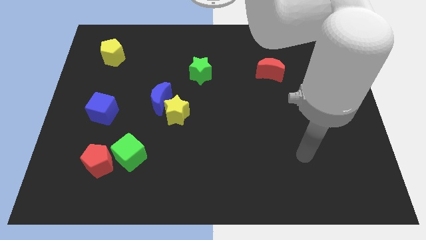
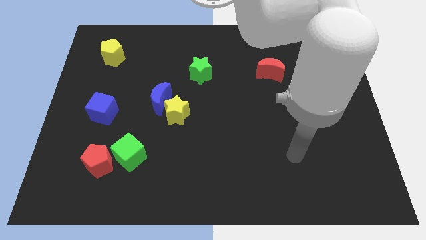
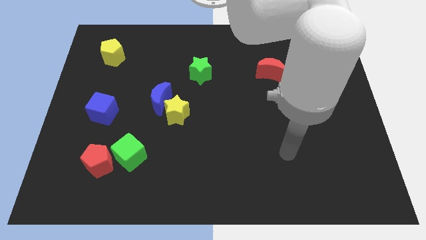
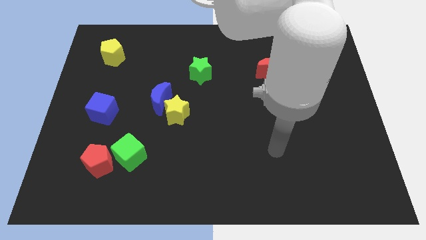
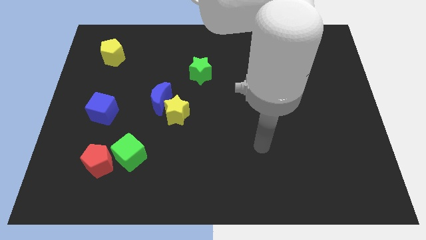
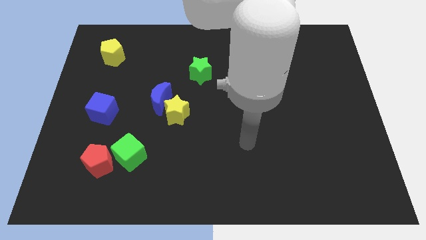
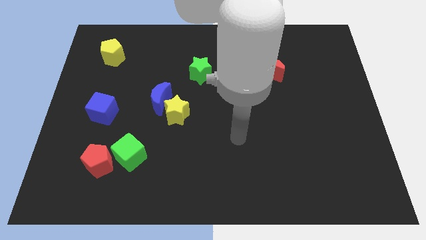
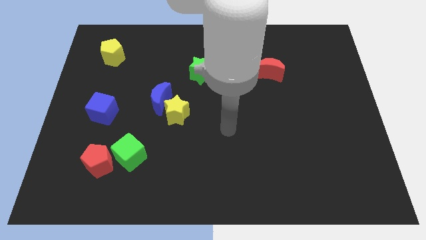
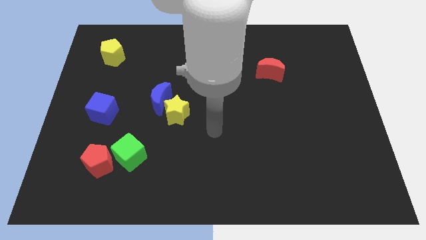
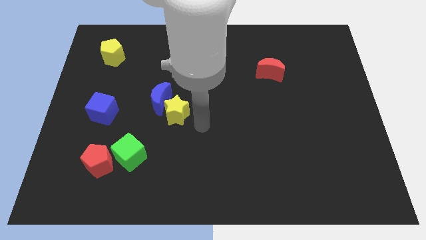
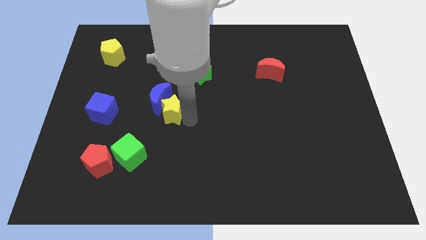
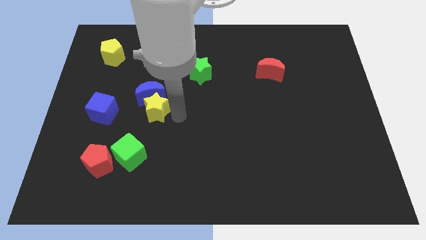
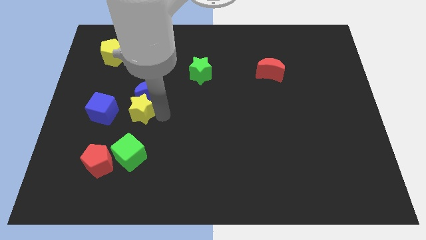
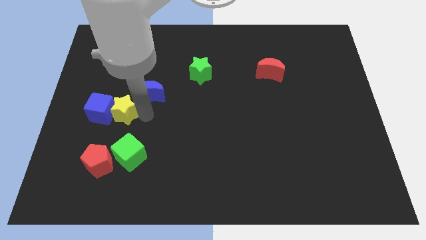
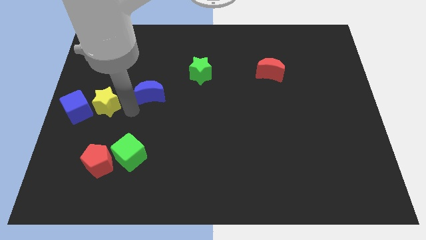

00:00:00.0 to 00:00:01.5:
separate the blue moon from the yellow star

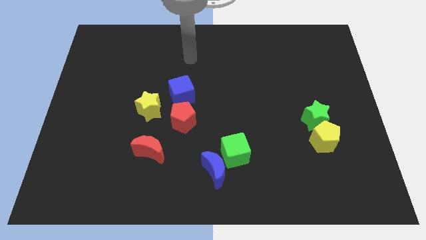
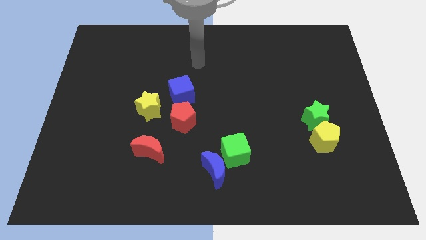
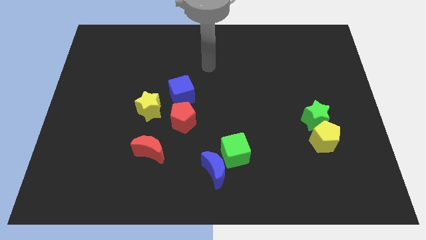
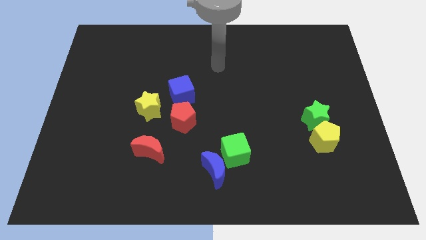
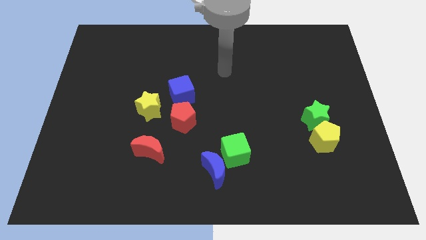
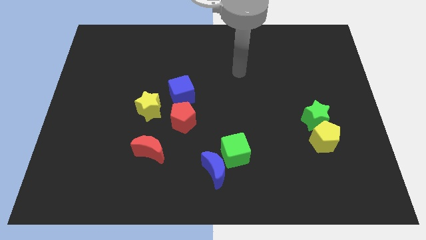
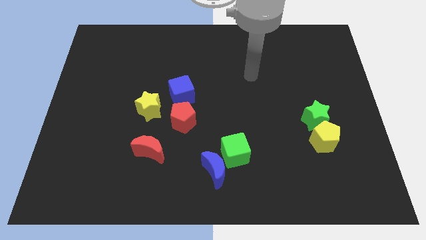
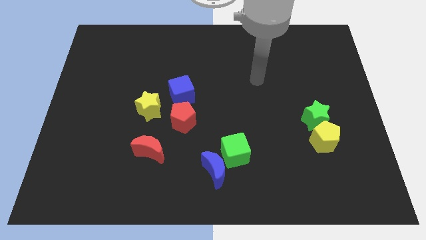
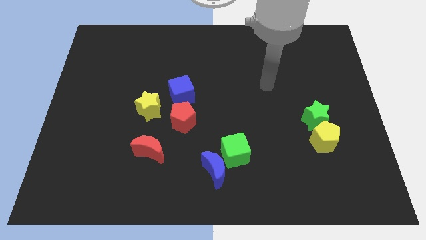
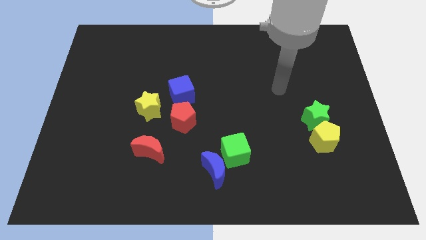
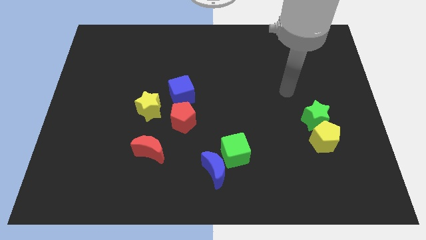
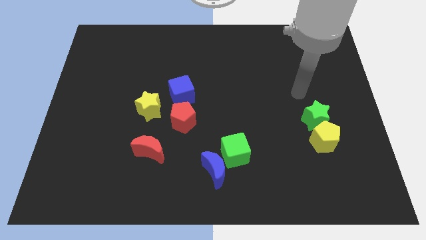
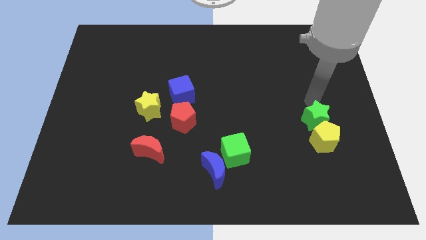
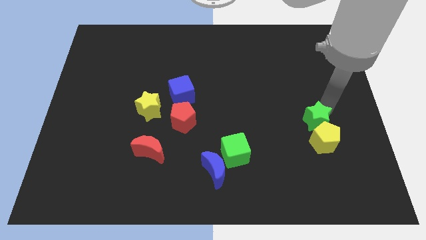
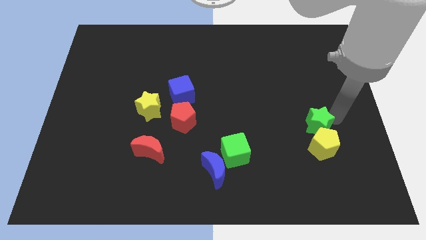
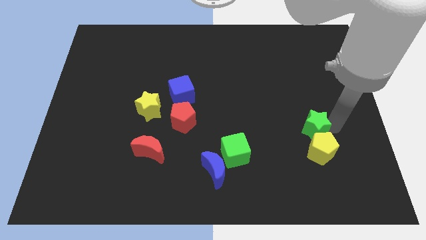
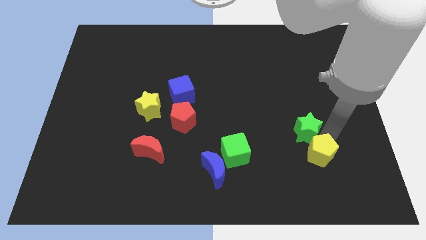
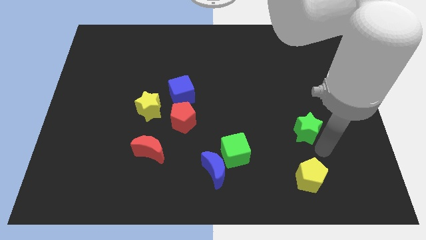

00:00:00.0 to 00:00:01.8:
separate the green star from the yellow pentagon

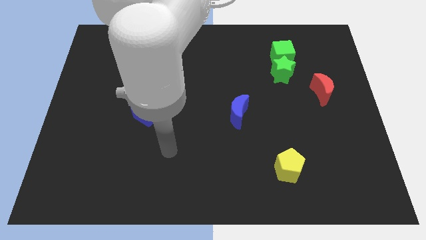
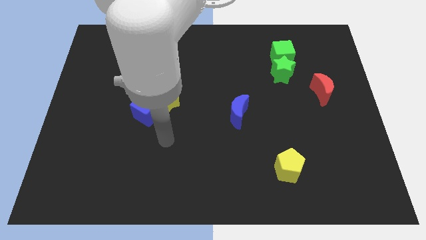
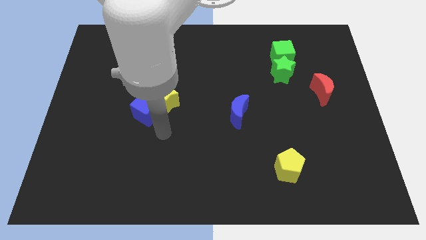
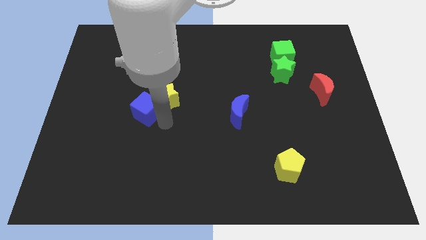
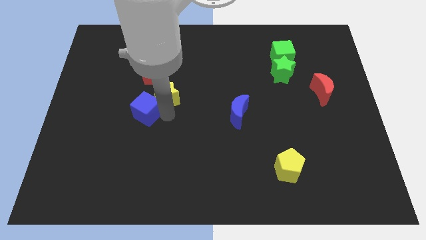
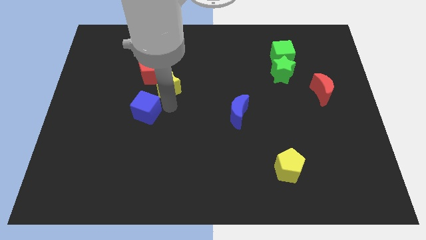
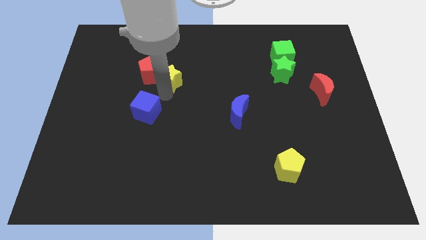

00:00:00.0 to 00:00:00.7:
move the blue cube away from the yellow star

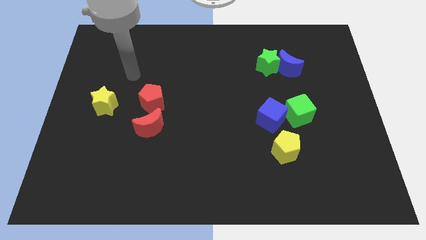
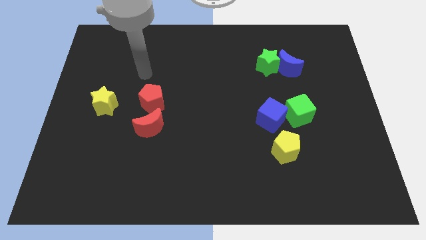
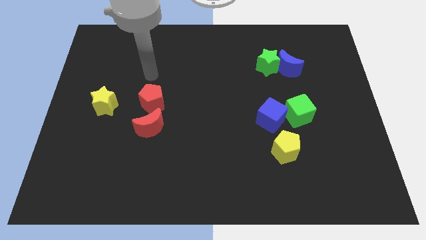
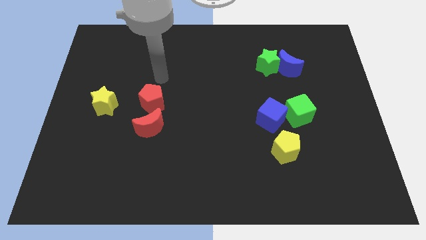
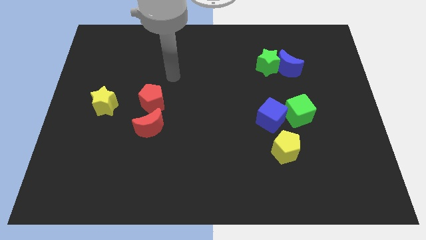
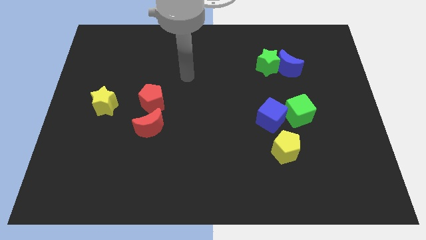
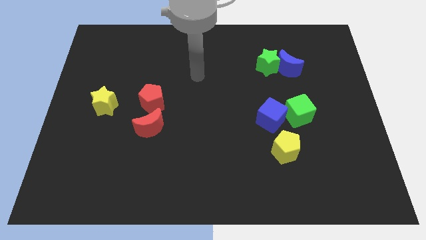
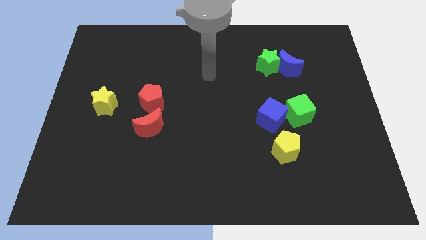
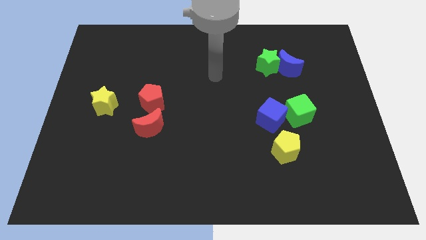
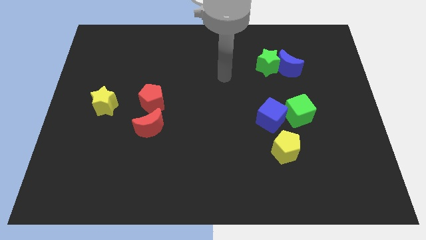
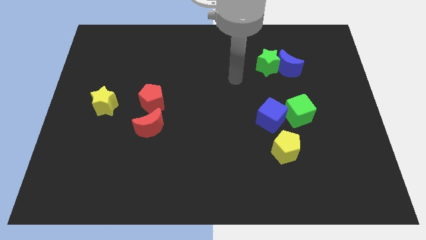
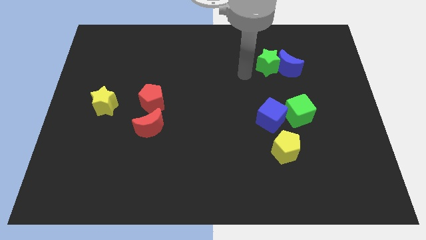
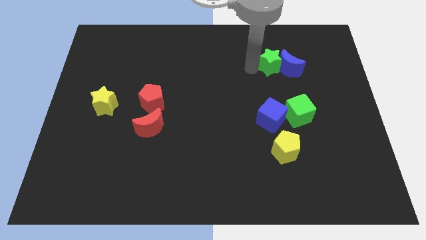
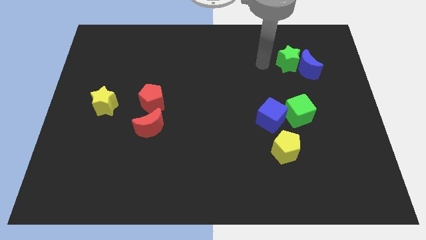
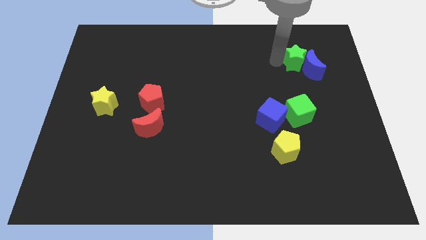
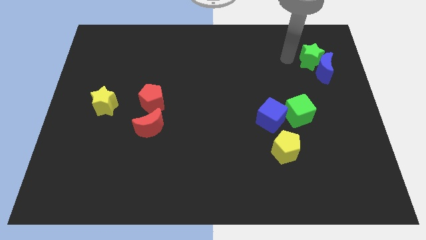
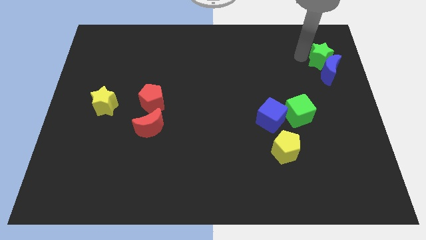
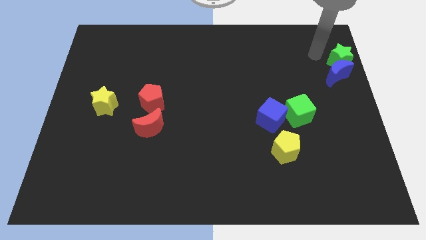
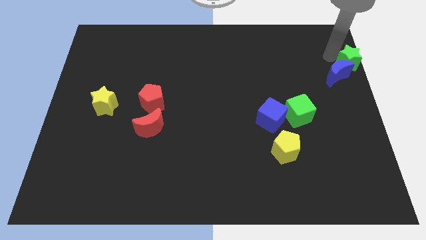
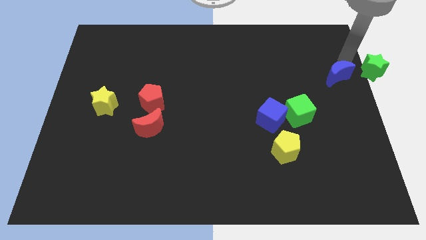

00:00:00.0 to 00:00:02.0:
separate the blue moon from the green star

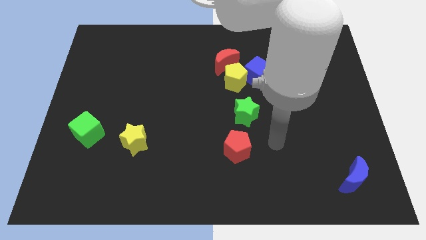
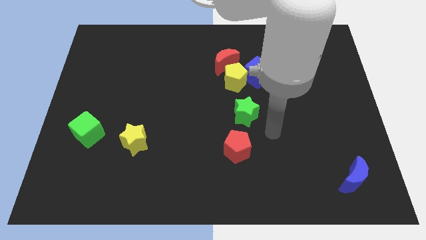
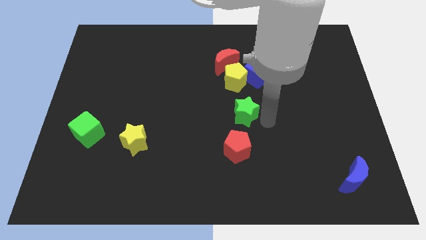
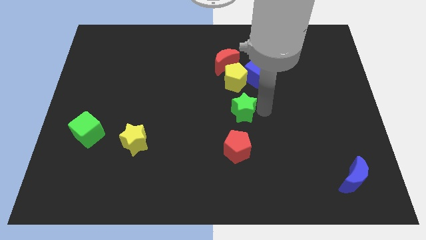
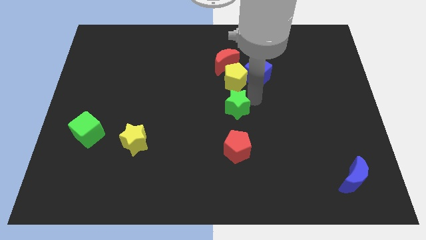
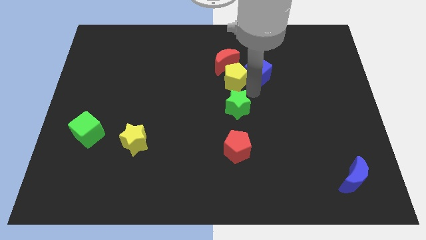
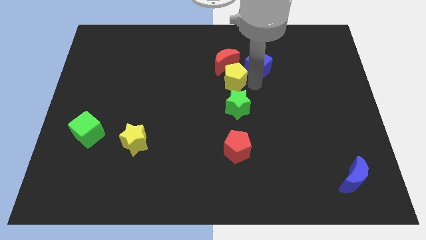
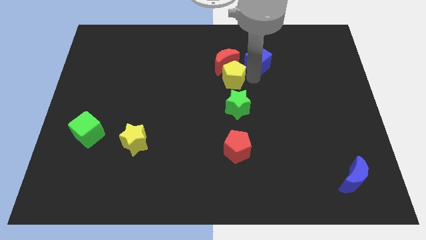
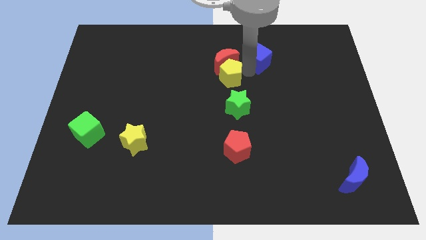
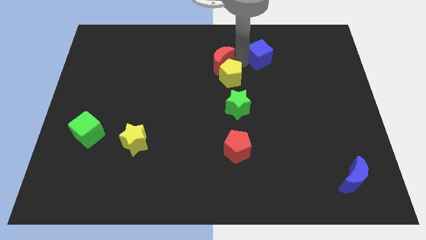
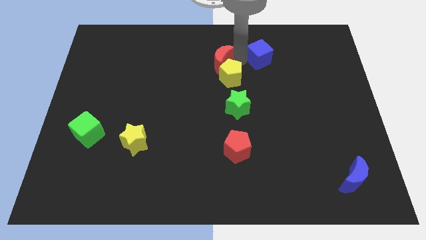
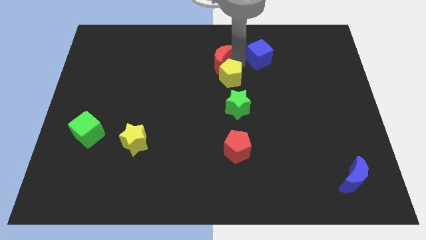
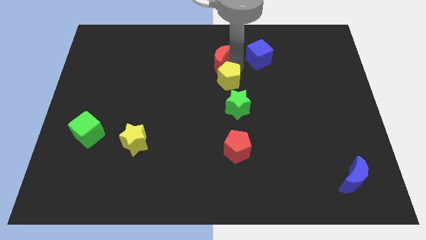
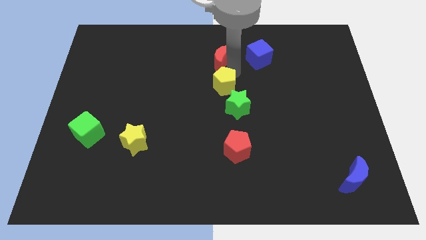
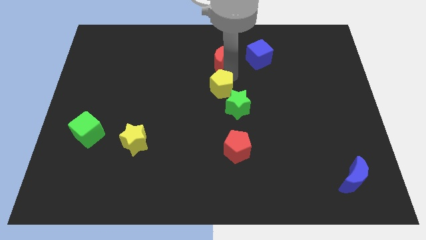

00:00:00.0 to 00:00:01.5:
pull the yellow pentagon apart from the blue cube and red moon

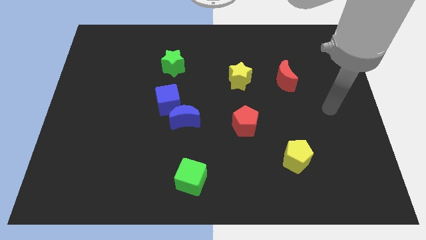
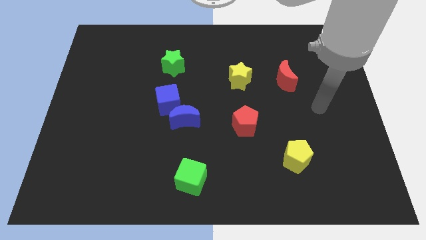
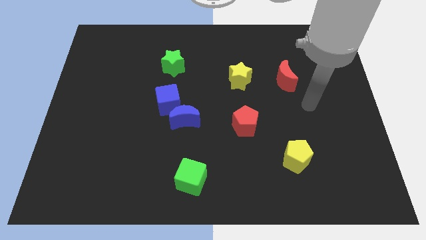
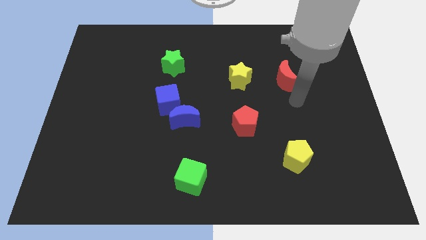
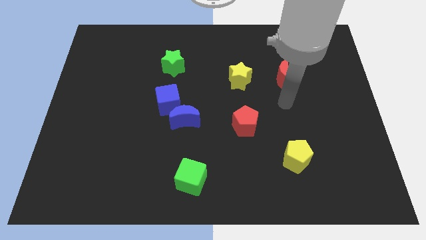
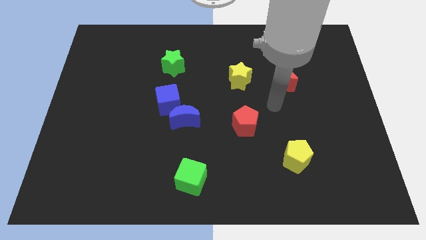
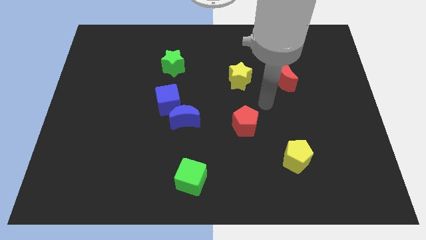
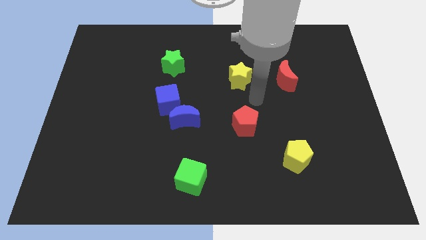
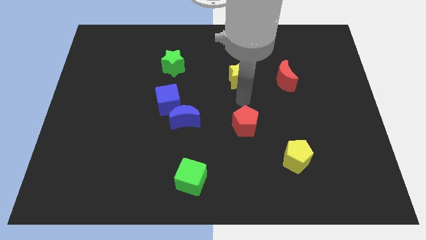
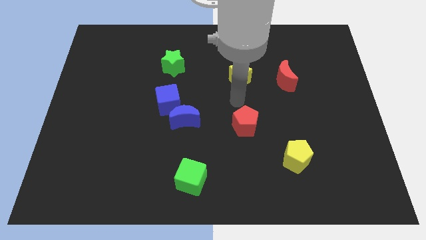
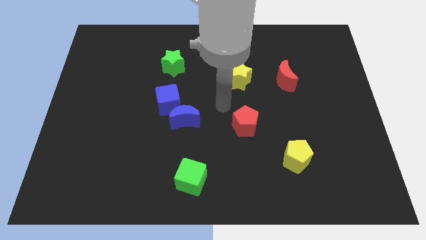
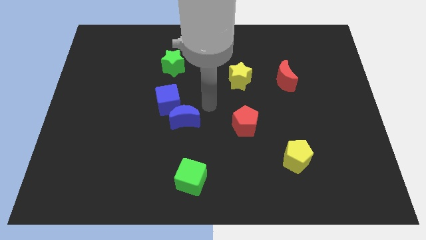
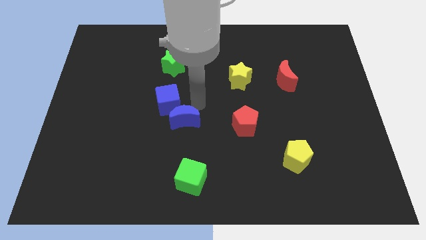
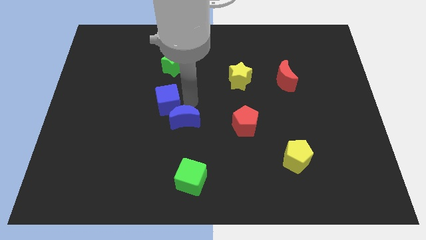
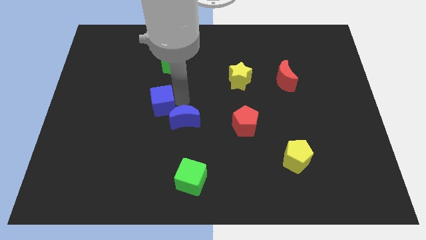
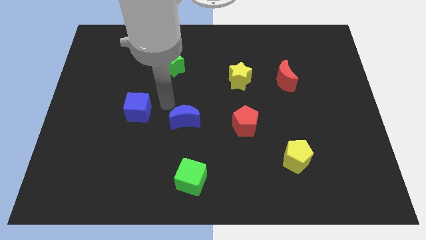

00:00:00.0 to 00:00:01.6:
separate the blue moon from the blue cube

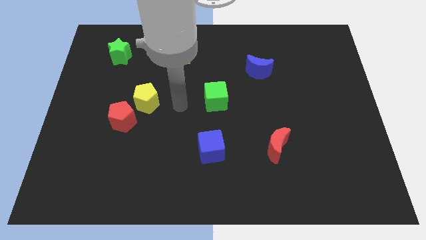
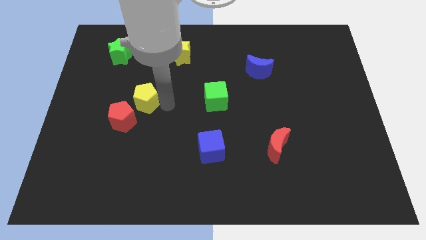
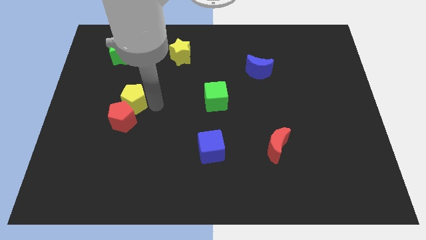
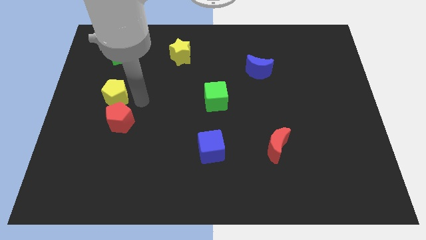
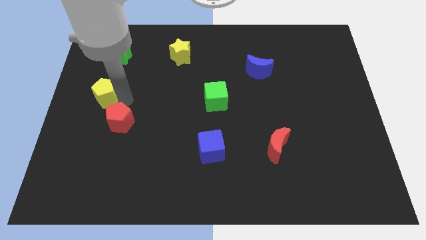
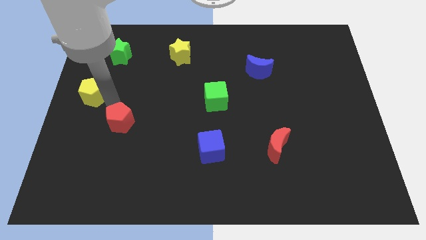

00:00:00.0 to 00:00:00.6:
pull the red pentagon apart from the yellow pentagon
